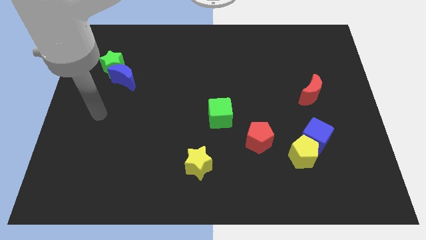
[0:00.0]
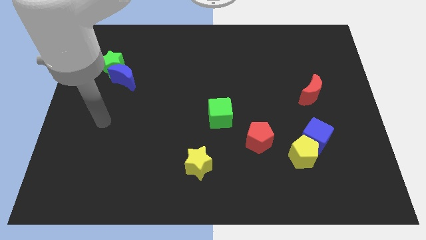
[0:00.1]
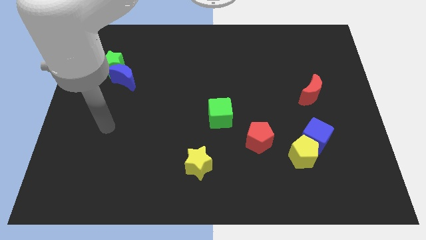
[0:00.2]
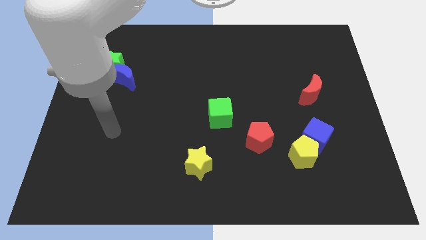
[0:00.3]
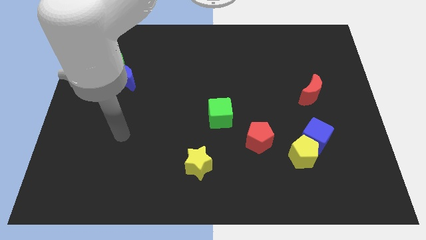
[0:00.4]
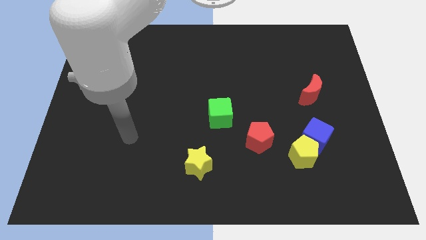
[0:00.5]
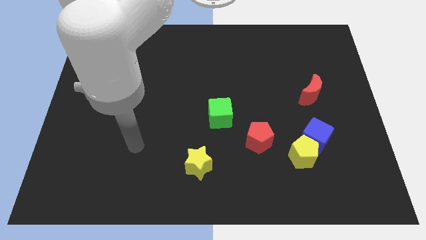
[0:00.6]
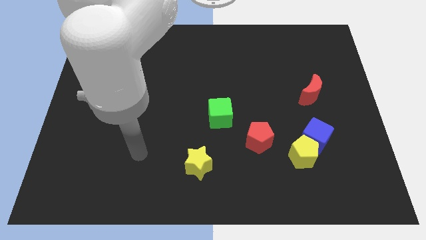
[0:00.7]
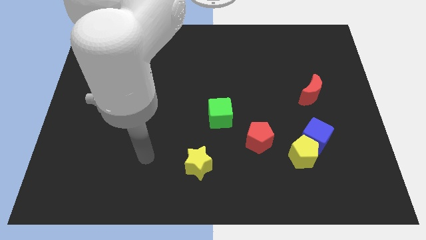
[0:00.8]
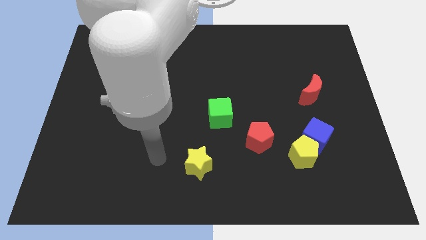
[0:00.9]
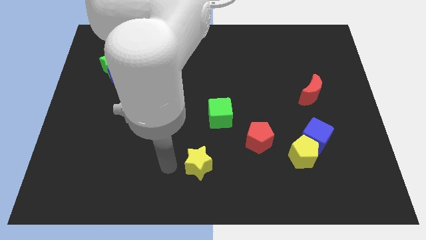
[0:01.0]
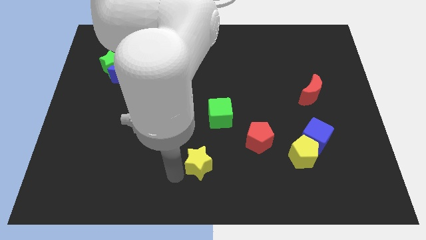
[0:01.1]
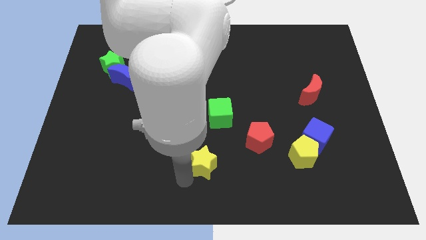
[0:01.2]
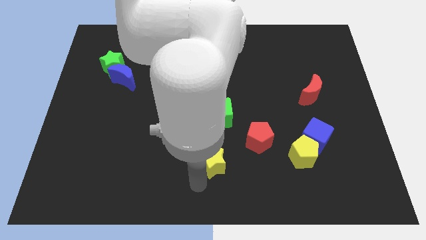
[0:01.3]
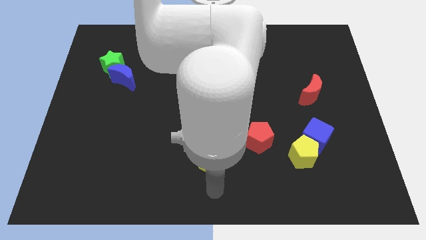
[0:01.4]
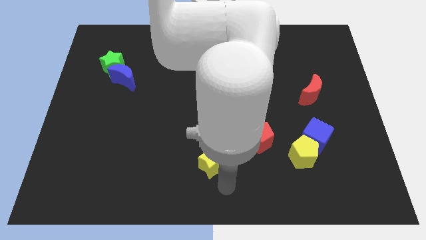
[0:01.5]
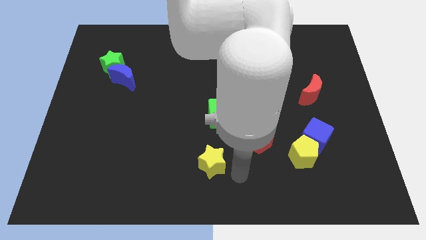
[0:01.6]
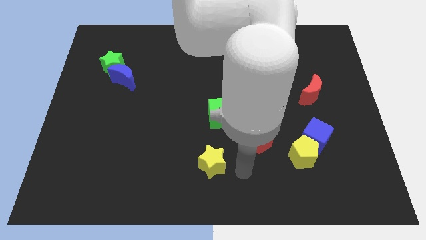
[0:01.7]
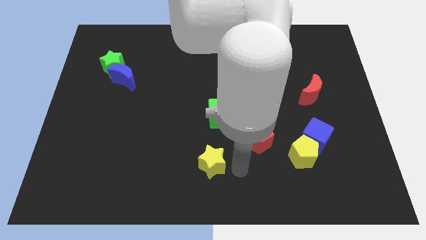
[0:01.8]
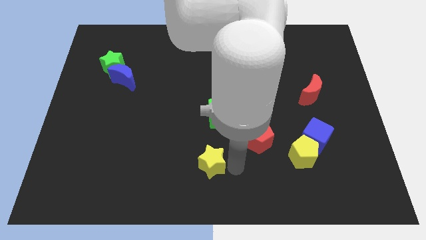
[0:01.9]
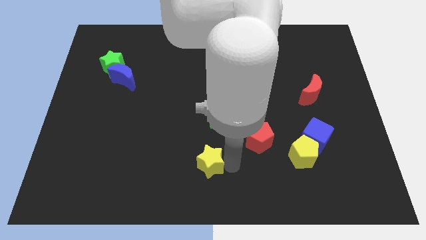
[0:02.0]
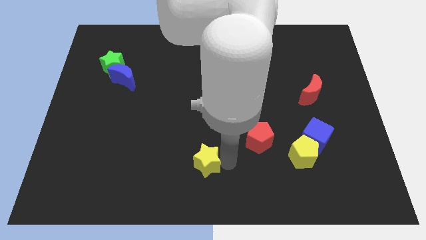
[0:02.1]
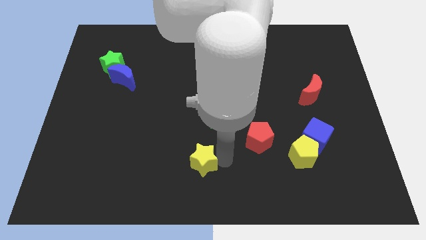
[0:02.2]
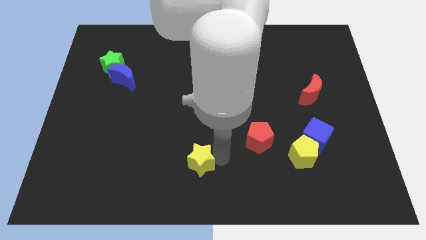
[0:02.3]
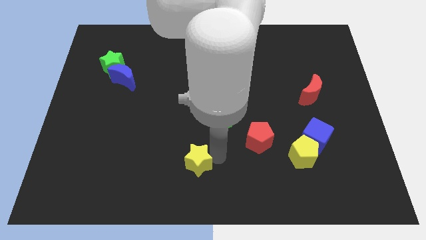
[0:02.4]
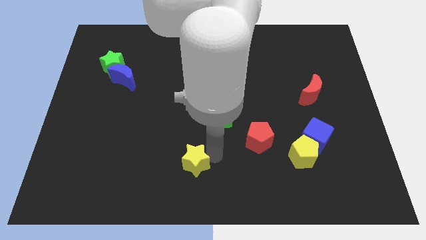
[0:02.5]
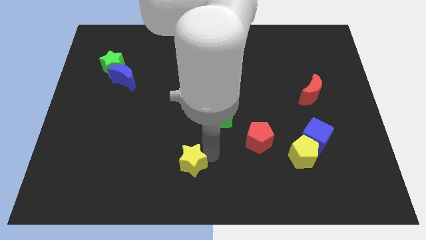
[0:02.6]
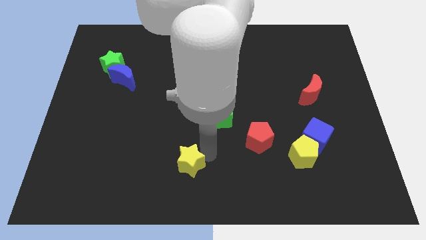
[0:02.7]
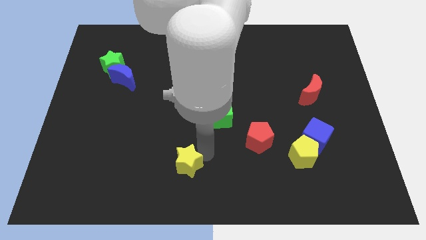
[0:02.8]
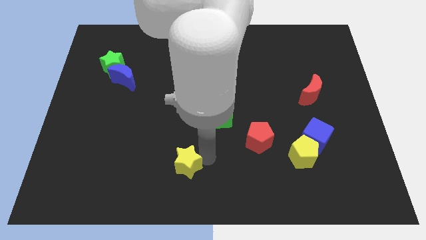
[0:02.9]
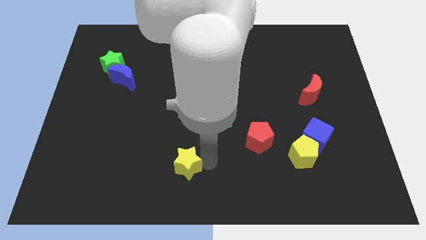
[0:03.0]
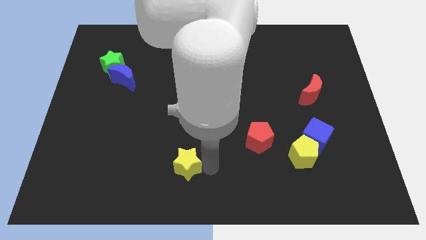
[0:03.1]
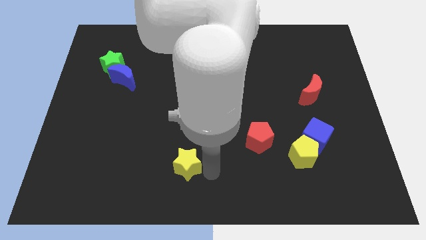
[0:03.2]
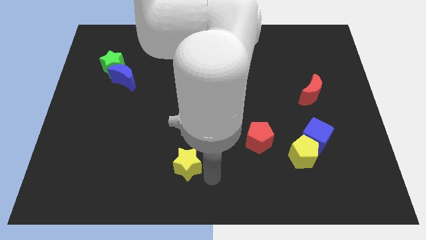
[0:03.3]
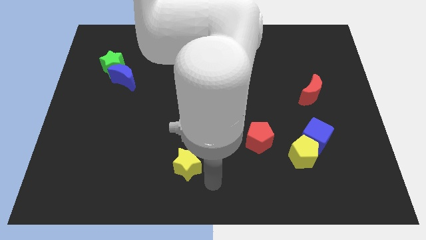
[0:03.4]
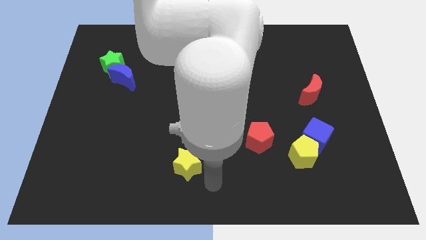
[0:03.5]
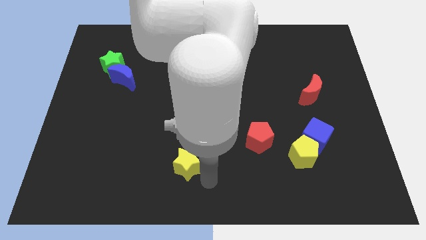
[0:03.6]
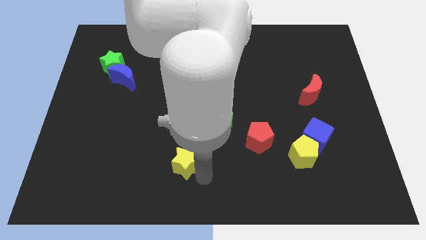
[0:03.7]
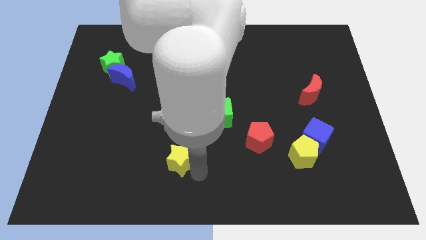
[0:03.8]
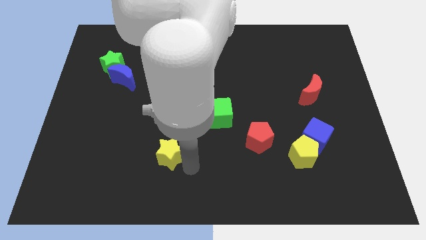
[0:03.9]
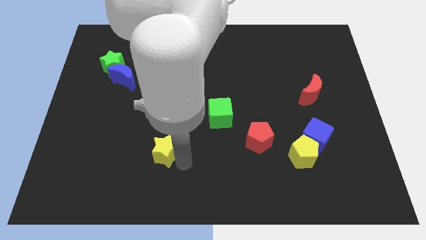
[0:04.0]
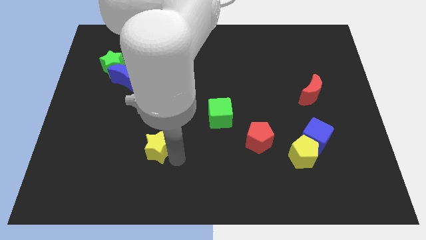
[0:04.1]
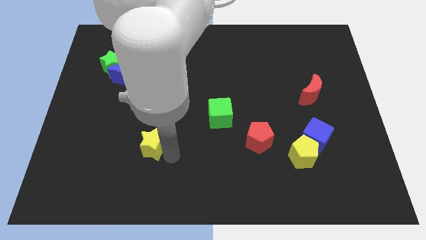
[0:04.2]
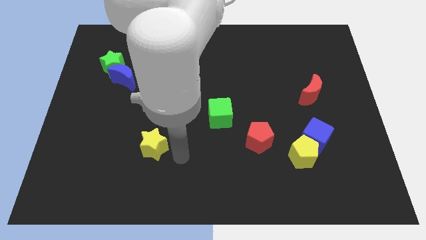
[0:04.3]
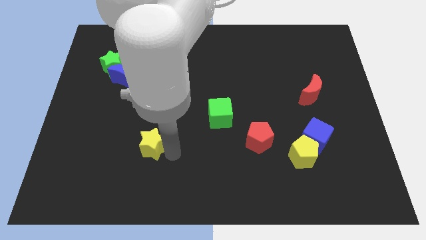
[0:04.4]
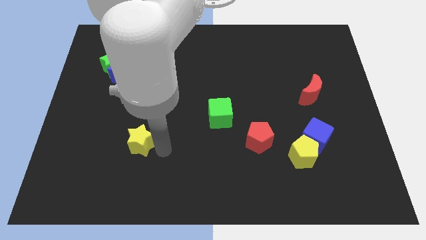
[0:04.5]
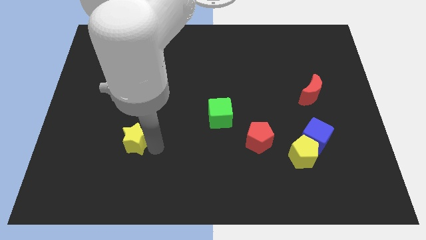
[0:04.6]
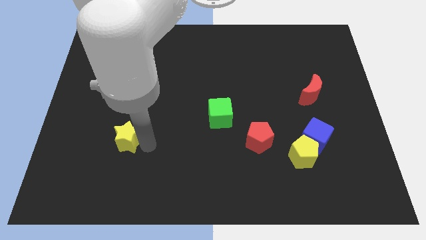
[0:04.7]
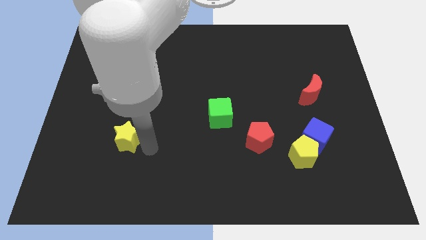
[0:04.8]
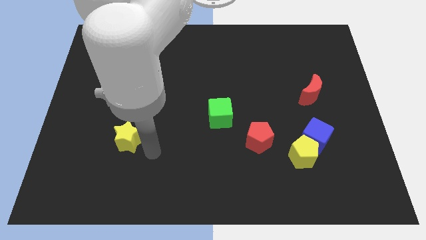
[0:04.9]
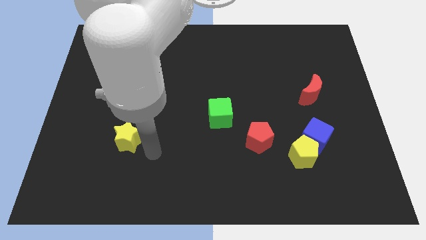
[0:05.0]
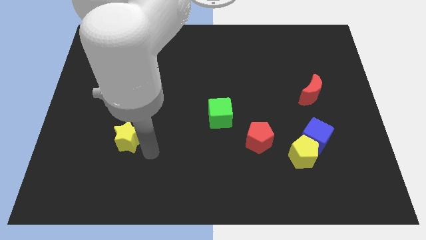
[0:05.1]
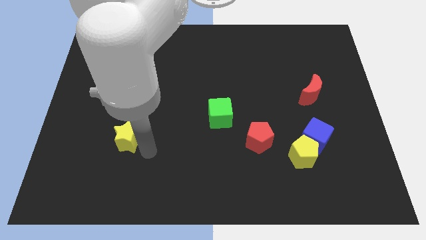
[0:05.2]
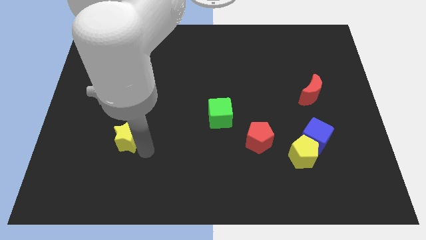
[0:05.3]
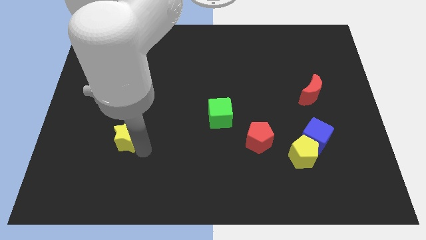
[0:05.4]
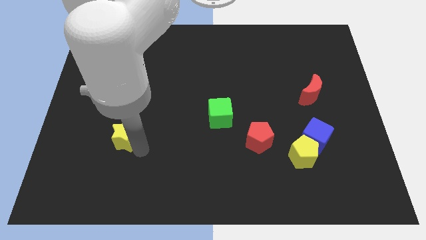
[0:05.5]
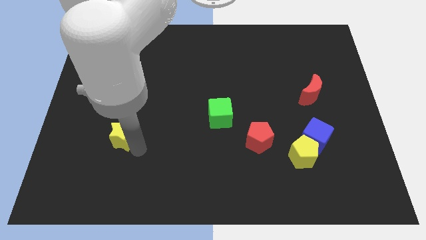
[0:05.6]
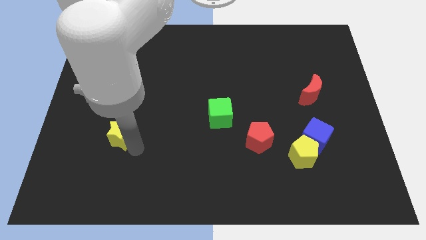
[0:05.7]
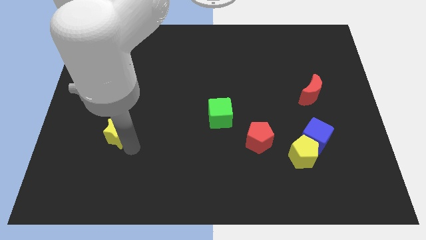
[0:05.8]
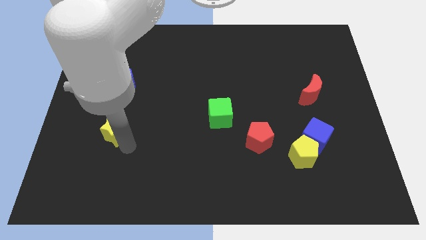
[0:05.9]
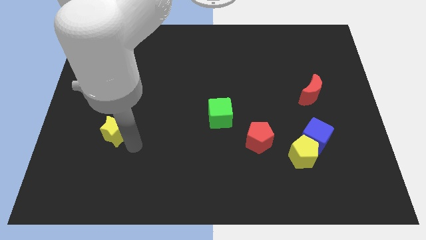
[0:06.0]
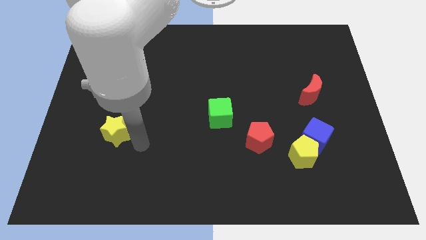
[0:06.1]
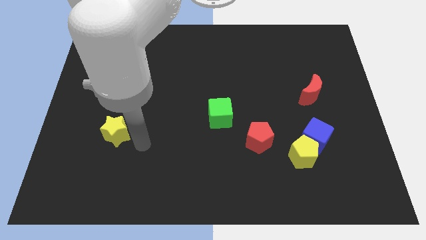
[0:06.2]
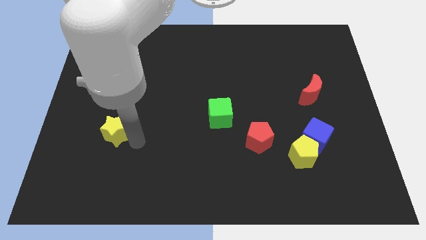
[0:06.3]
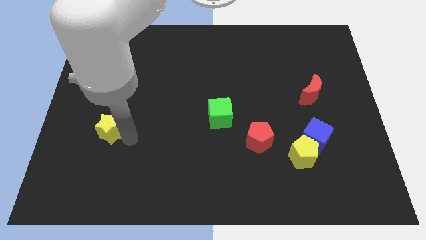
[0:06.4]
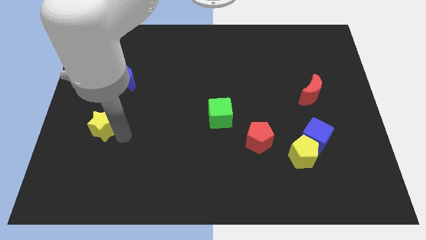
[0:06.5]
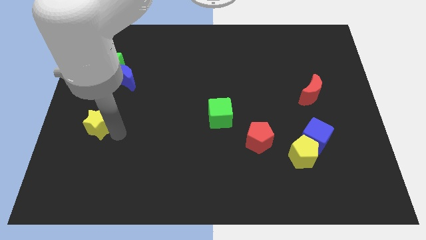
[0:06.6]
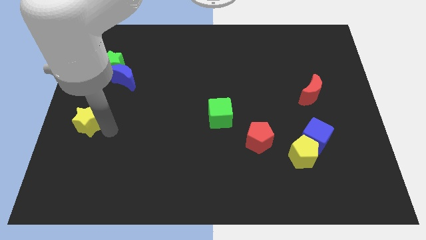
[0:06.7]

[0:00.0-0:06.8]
push the yellow star to the center left
